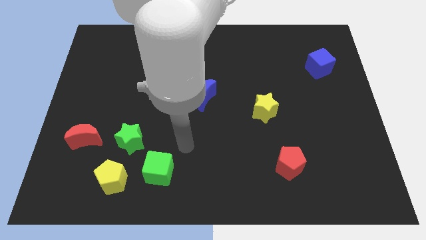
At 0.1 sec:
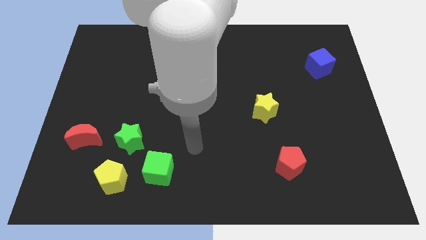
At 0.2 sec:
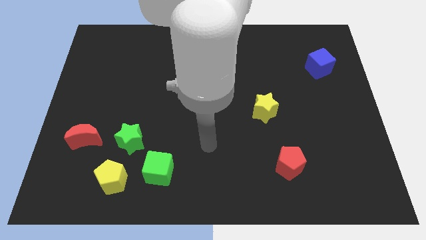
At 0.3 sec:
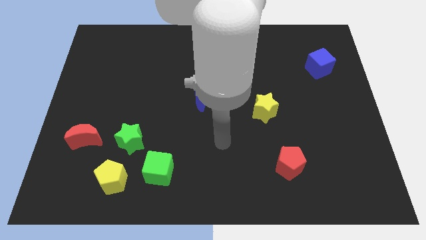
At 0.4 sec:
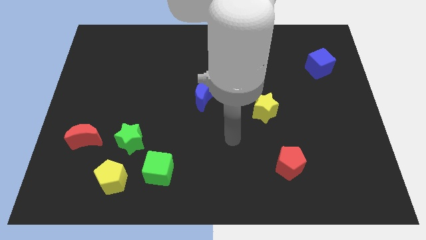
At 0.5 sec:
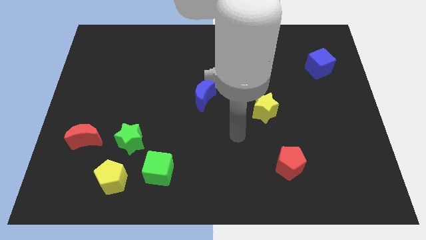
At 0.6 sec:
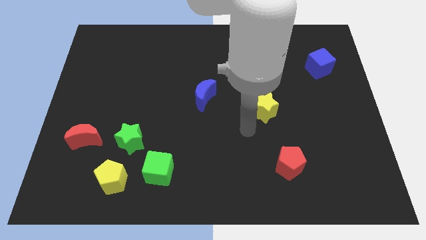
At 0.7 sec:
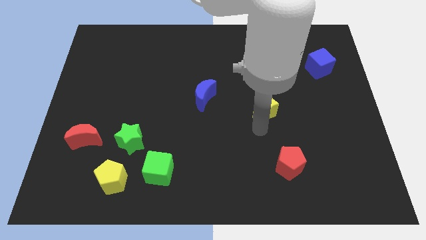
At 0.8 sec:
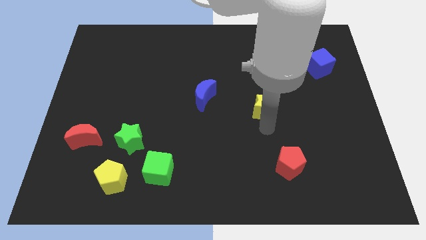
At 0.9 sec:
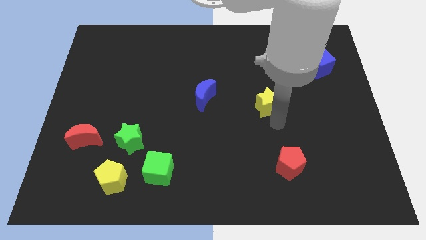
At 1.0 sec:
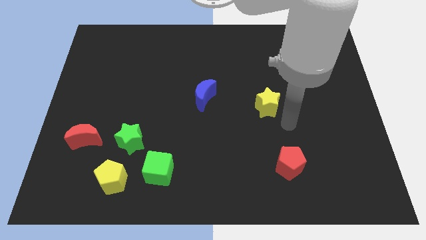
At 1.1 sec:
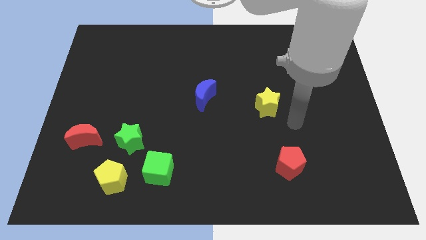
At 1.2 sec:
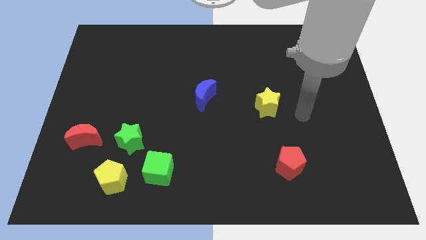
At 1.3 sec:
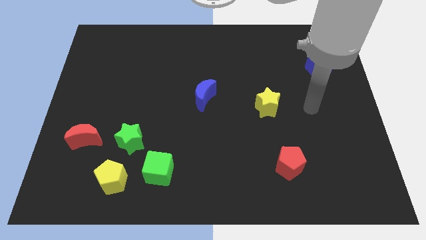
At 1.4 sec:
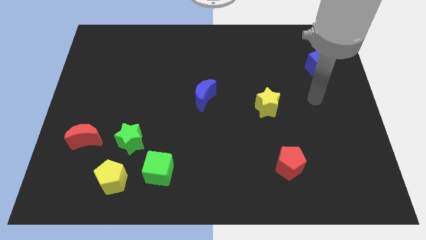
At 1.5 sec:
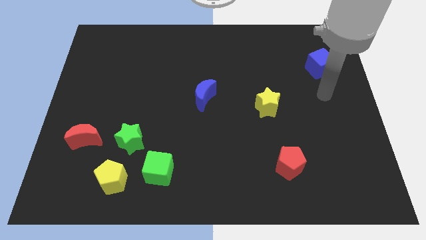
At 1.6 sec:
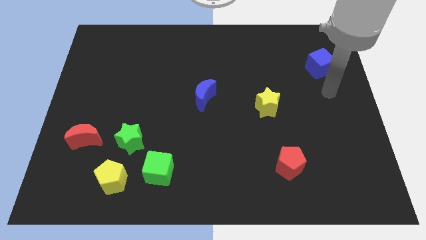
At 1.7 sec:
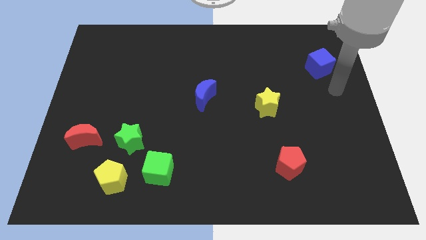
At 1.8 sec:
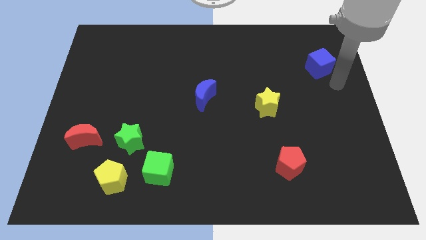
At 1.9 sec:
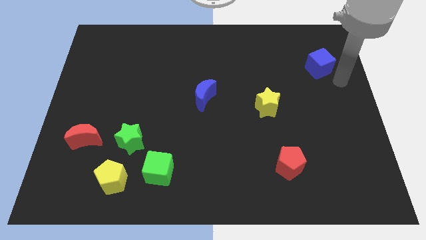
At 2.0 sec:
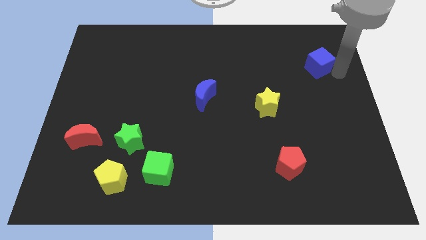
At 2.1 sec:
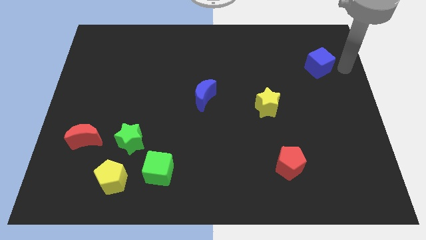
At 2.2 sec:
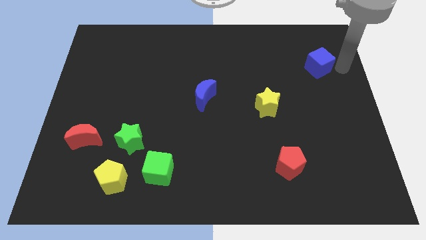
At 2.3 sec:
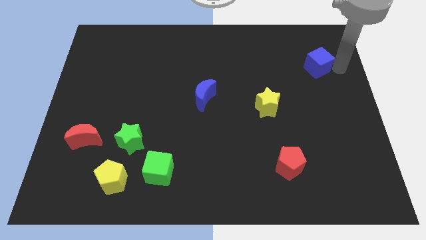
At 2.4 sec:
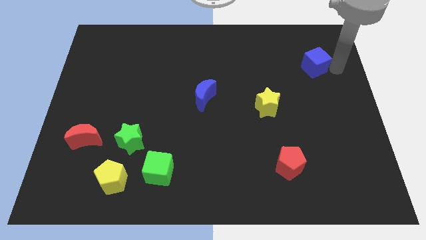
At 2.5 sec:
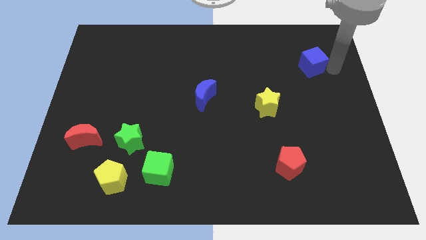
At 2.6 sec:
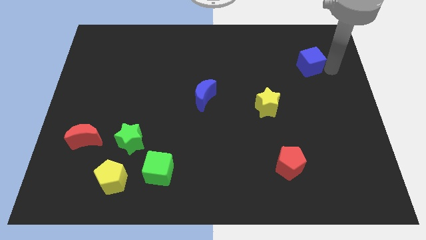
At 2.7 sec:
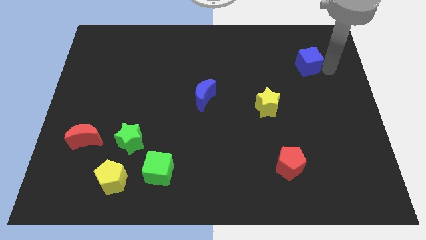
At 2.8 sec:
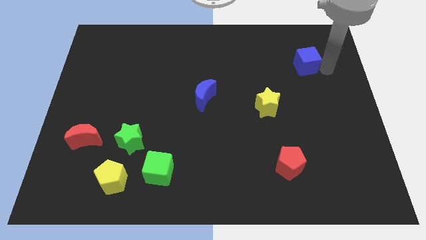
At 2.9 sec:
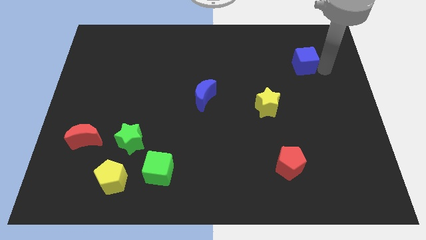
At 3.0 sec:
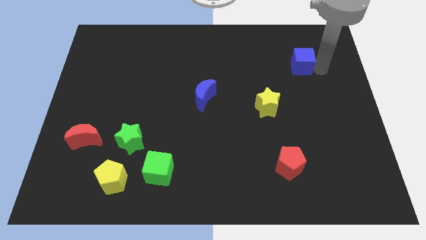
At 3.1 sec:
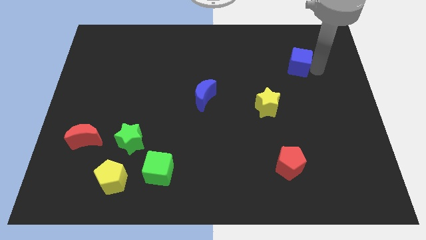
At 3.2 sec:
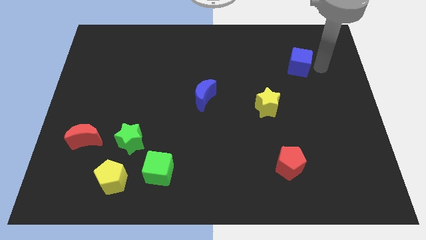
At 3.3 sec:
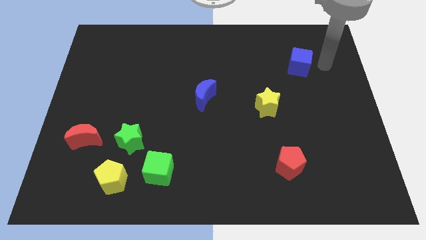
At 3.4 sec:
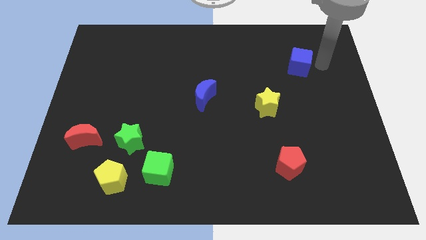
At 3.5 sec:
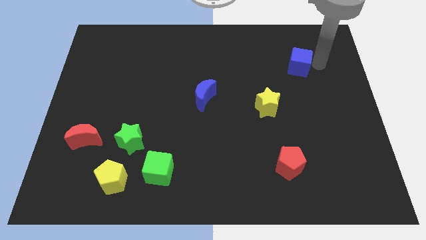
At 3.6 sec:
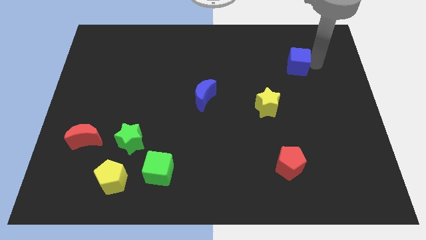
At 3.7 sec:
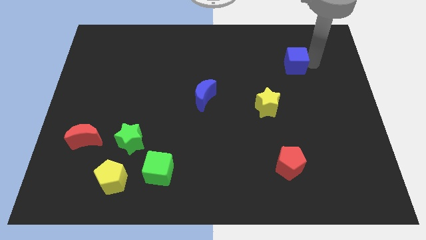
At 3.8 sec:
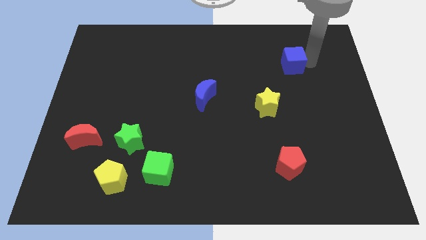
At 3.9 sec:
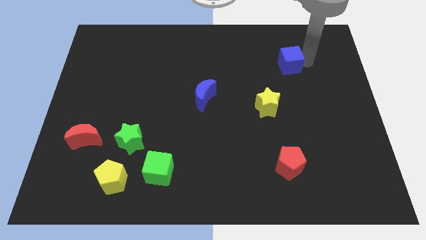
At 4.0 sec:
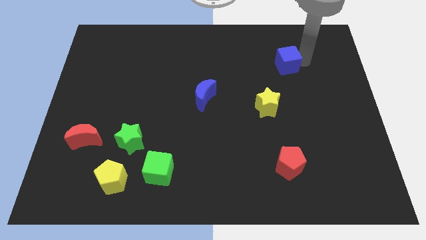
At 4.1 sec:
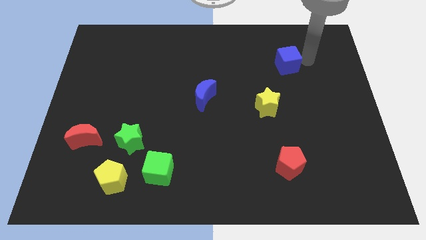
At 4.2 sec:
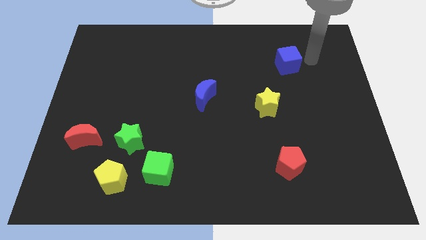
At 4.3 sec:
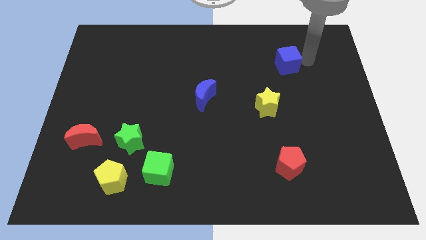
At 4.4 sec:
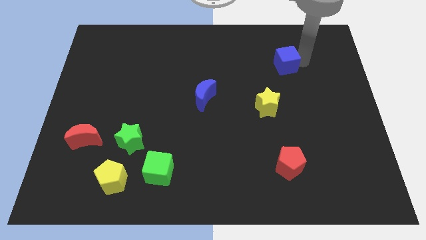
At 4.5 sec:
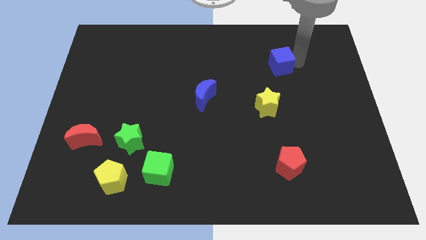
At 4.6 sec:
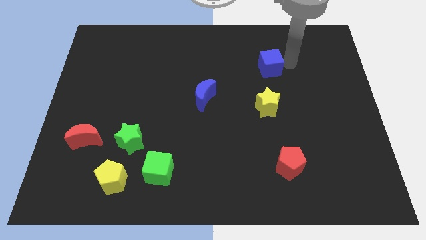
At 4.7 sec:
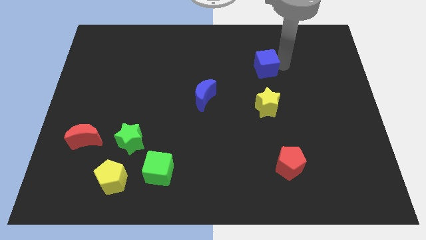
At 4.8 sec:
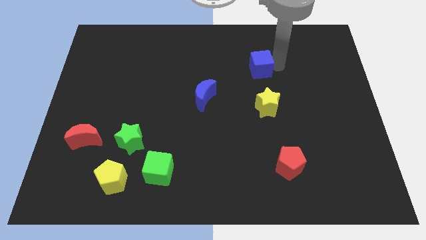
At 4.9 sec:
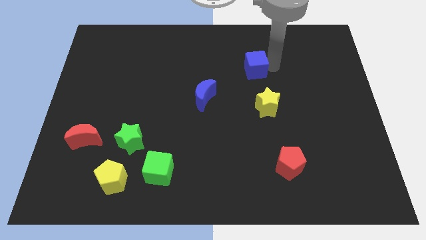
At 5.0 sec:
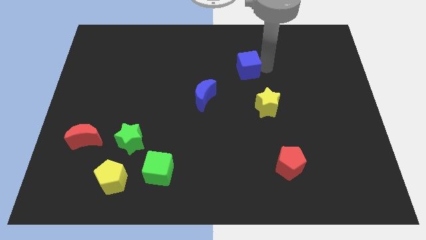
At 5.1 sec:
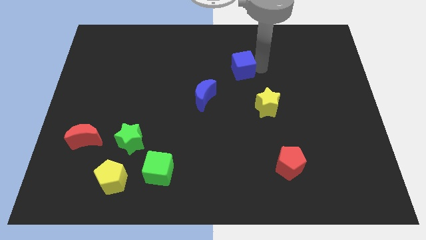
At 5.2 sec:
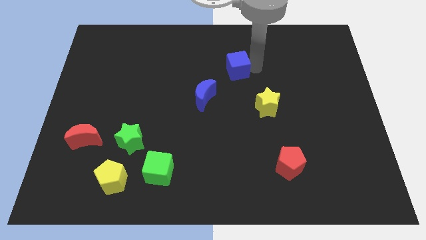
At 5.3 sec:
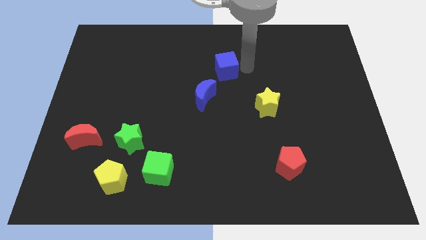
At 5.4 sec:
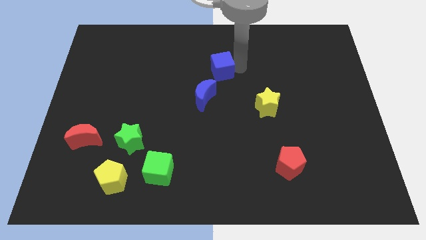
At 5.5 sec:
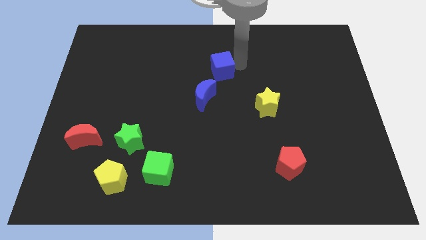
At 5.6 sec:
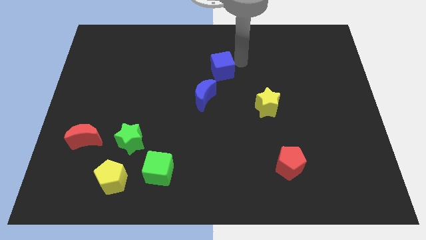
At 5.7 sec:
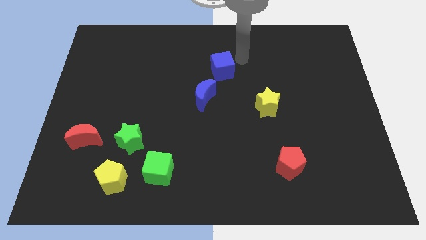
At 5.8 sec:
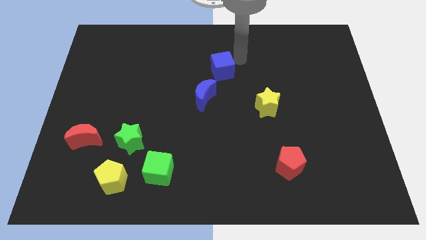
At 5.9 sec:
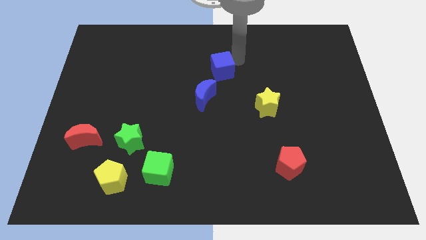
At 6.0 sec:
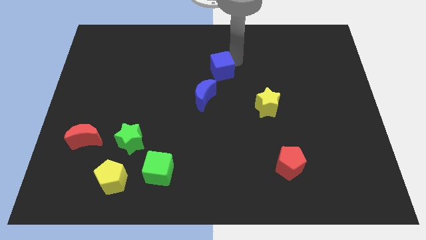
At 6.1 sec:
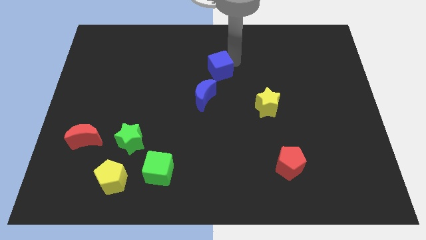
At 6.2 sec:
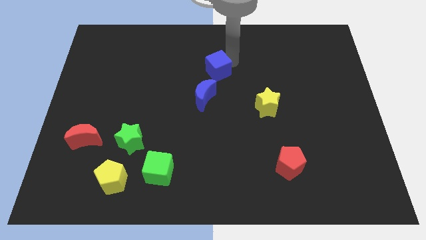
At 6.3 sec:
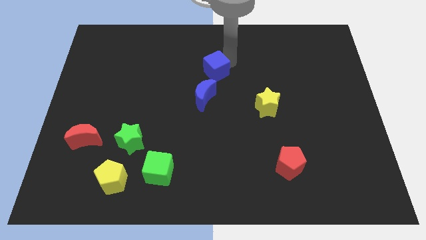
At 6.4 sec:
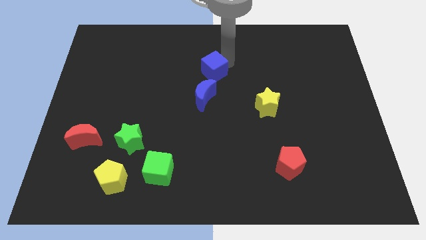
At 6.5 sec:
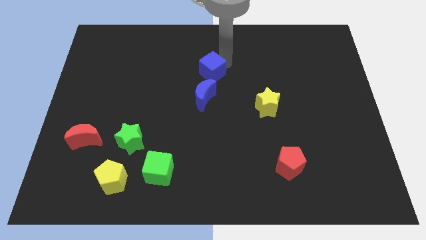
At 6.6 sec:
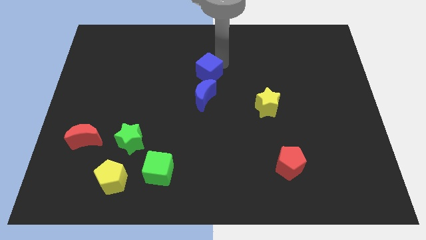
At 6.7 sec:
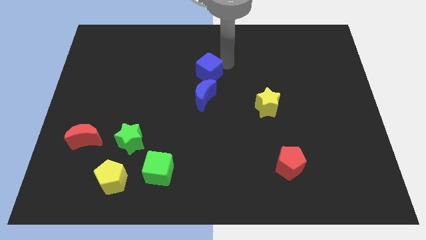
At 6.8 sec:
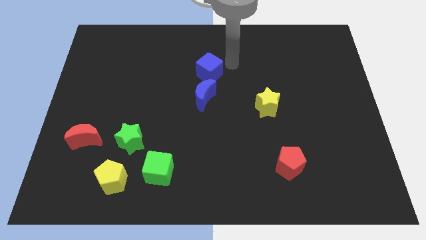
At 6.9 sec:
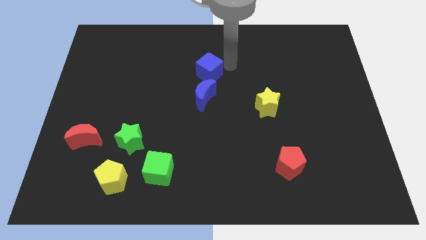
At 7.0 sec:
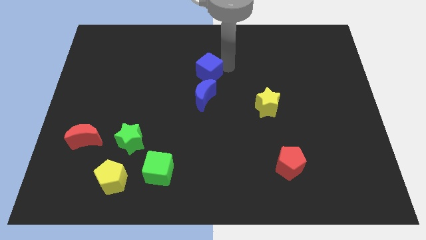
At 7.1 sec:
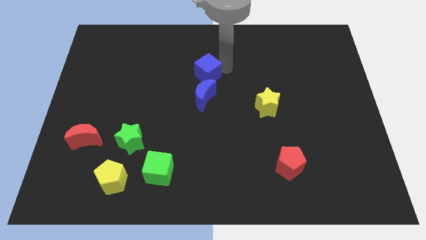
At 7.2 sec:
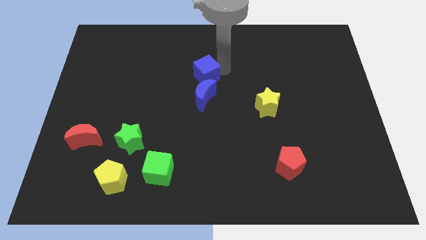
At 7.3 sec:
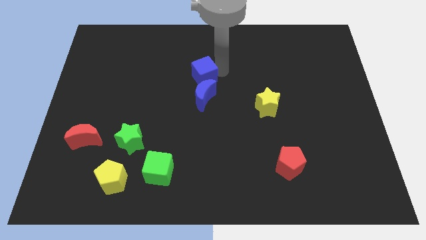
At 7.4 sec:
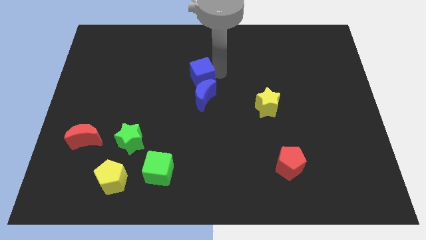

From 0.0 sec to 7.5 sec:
slide the blue cube diagonally up and to the left of the blue moon
